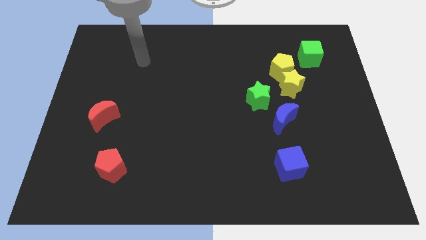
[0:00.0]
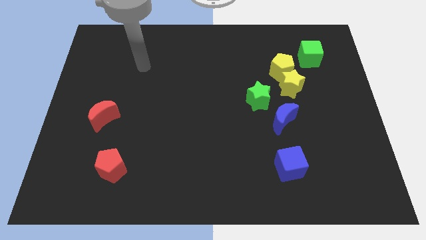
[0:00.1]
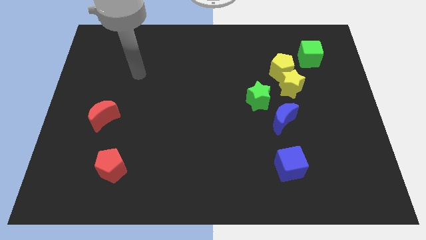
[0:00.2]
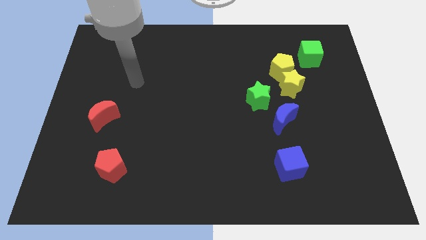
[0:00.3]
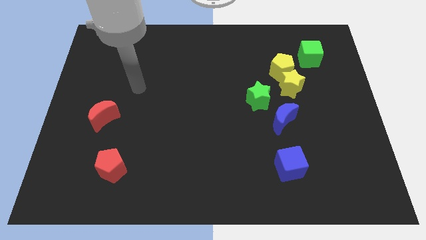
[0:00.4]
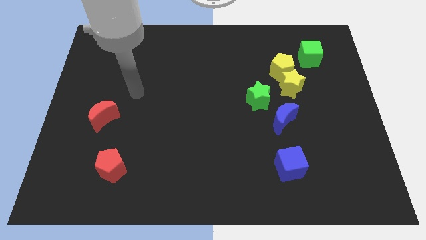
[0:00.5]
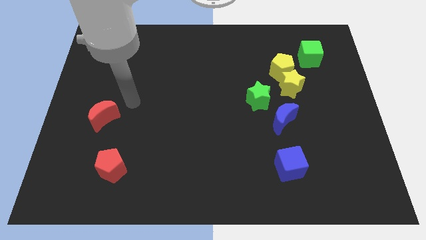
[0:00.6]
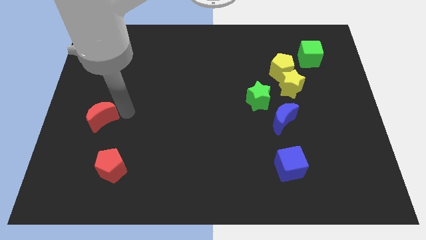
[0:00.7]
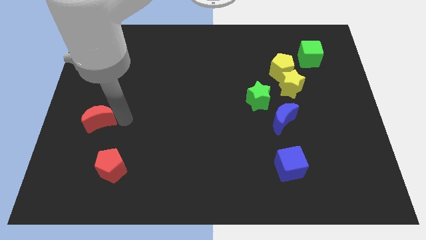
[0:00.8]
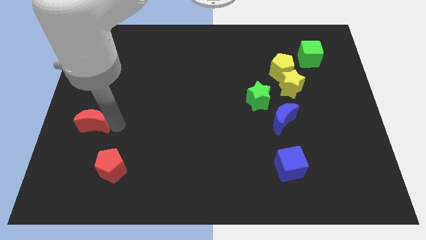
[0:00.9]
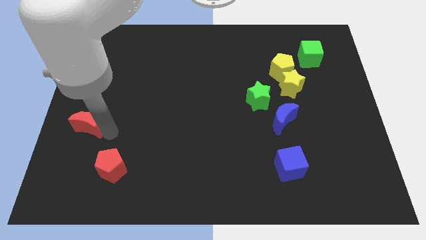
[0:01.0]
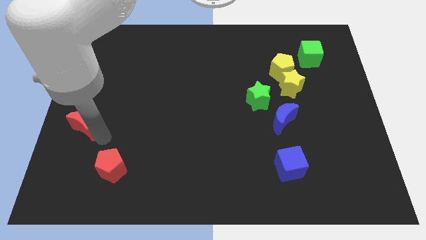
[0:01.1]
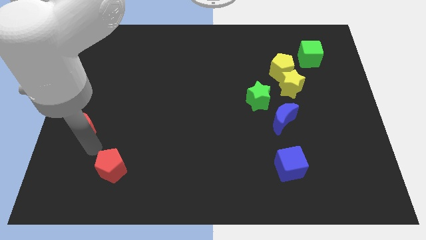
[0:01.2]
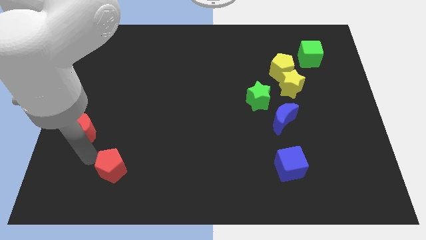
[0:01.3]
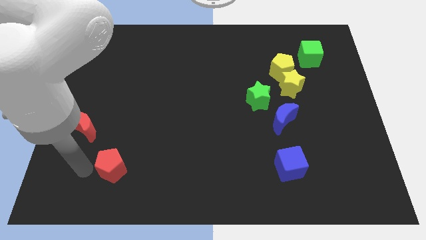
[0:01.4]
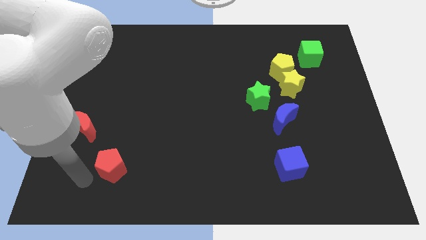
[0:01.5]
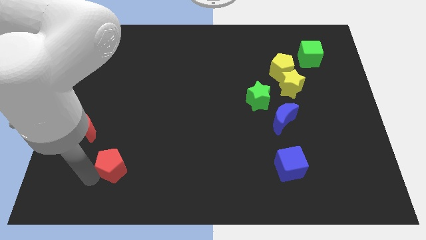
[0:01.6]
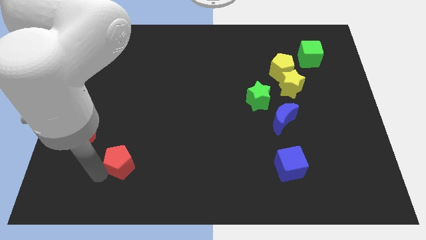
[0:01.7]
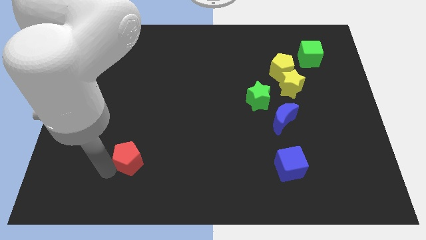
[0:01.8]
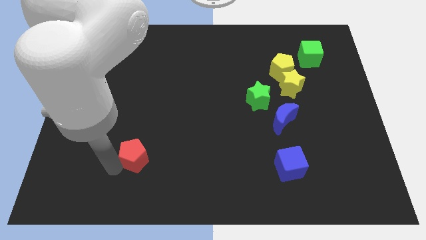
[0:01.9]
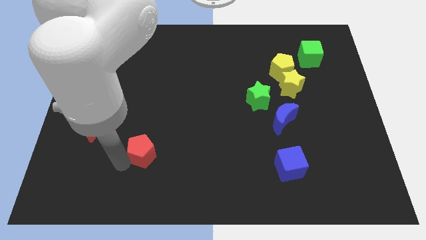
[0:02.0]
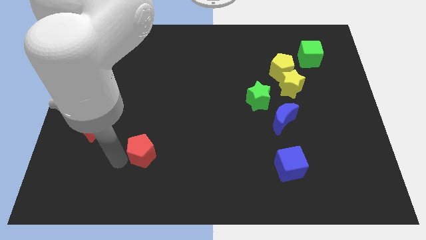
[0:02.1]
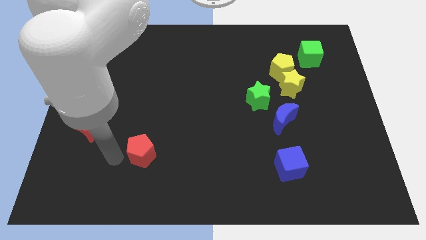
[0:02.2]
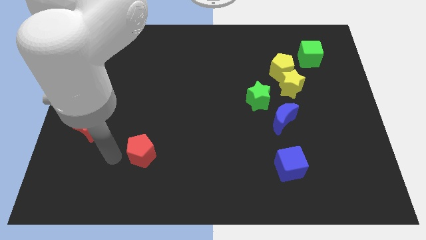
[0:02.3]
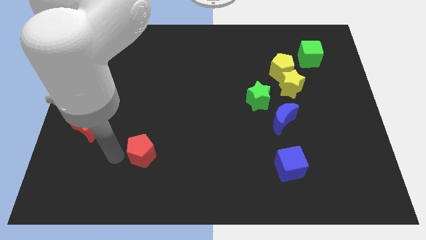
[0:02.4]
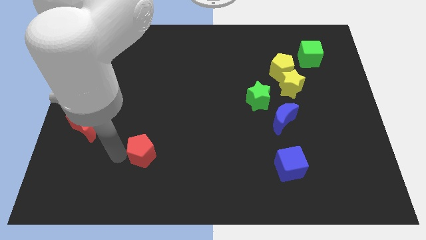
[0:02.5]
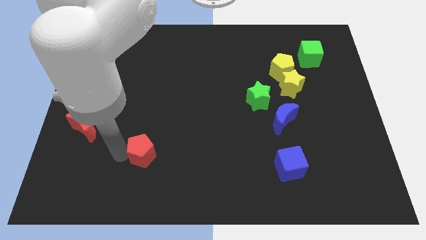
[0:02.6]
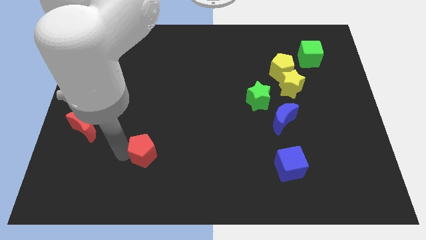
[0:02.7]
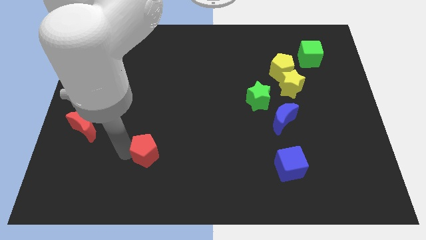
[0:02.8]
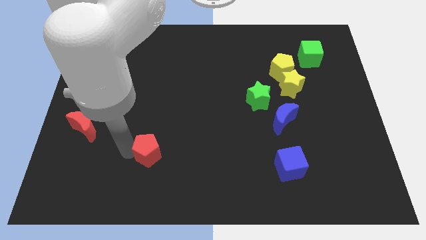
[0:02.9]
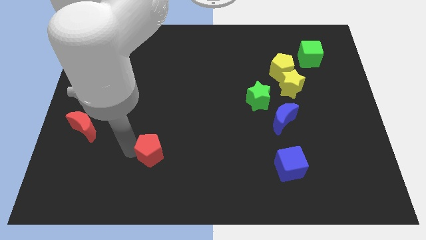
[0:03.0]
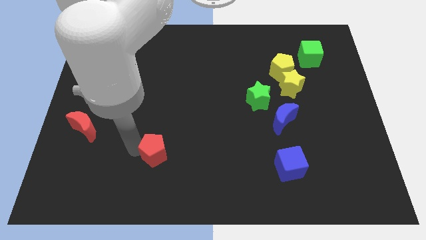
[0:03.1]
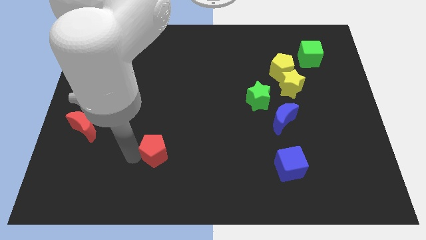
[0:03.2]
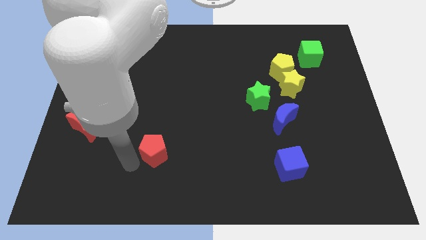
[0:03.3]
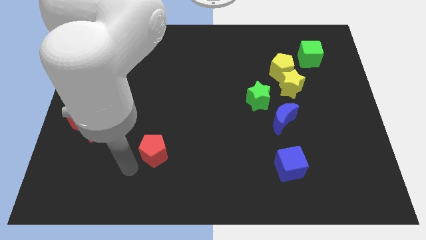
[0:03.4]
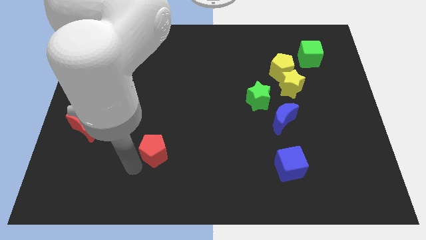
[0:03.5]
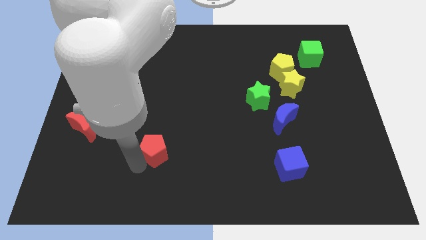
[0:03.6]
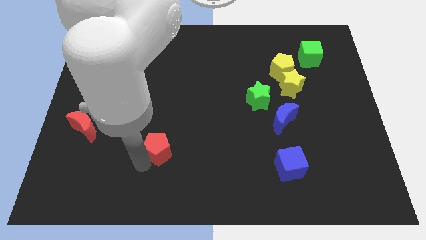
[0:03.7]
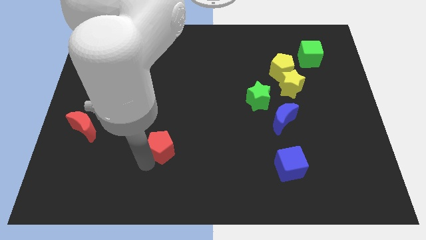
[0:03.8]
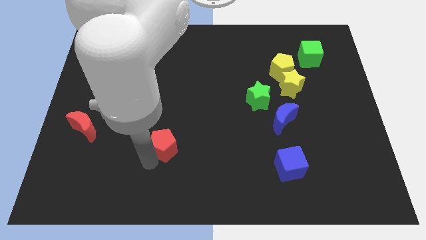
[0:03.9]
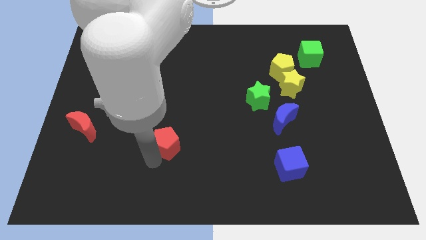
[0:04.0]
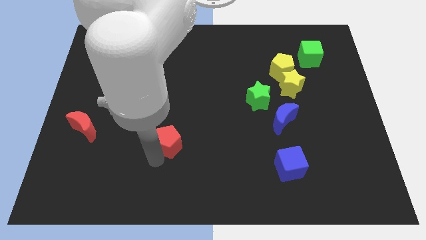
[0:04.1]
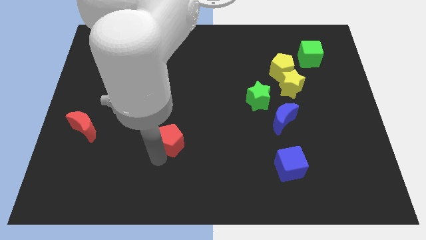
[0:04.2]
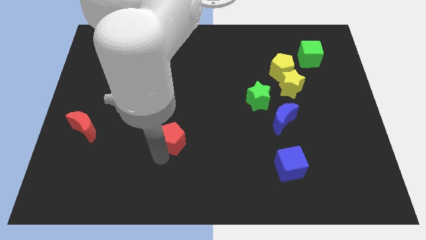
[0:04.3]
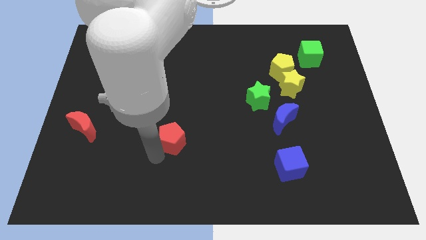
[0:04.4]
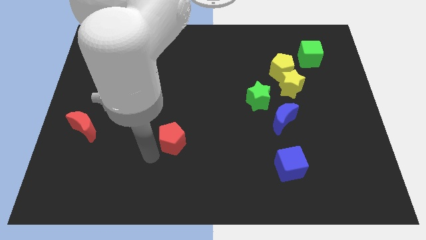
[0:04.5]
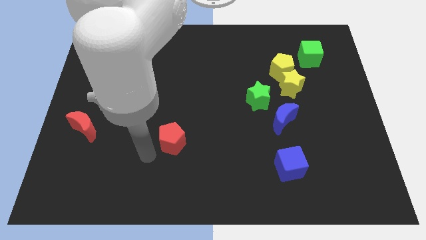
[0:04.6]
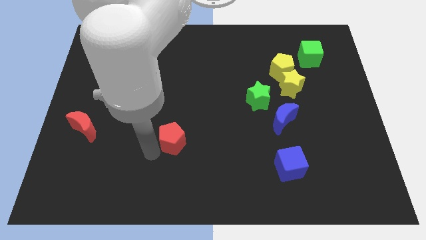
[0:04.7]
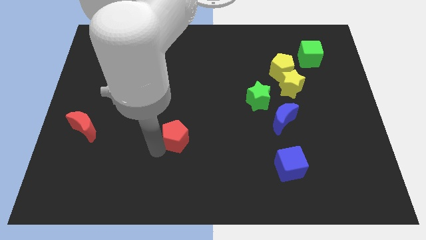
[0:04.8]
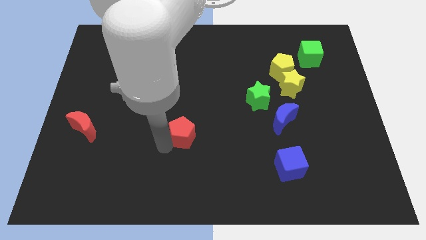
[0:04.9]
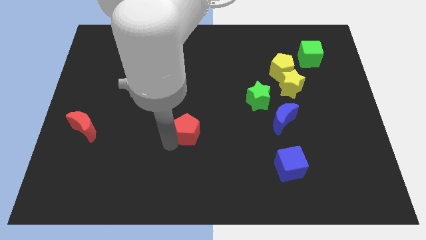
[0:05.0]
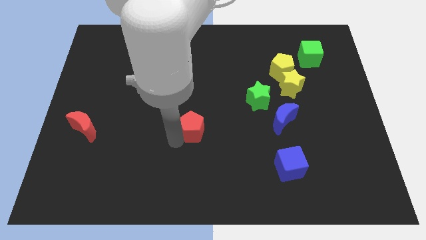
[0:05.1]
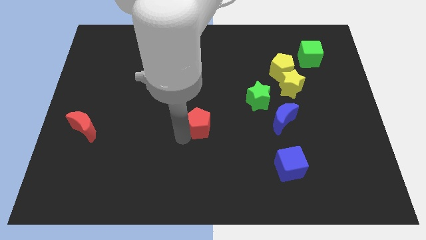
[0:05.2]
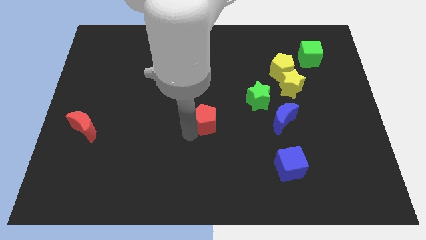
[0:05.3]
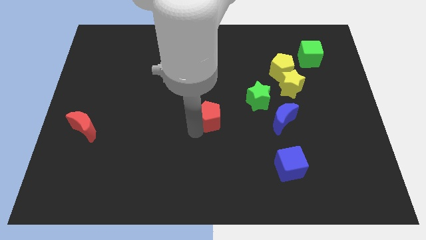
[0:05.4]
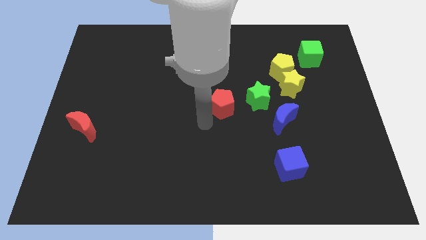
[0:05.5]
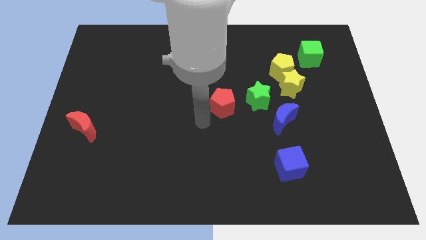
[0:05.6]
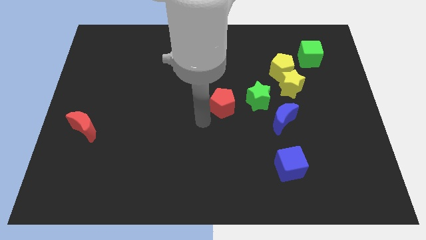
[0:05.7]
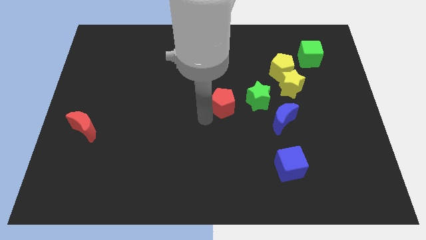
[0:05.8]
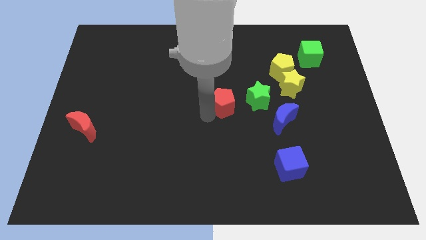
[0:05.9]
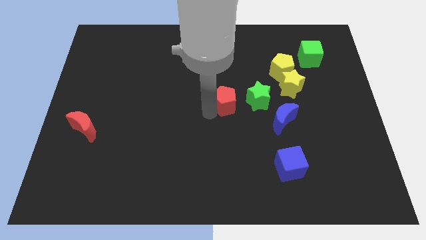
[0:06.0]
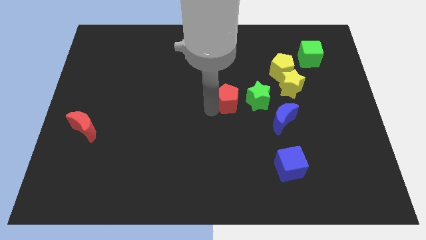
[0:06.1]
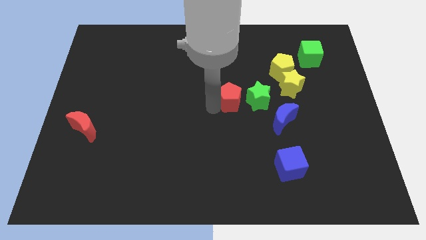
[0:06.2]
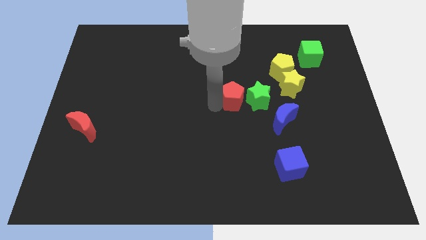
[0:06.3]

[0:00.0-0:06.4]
put the red pentagon to the left side of the yellow star
